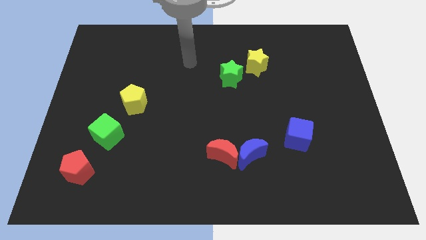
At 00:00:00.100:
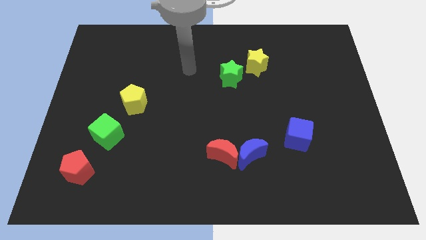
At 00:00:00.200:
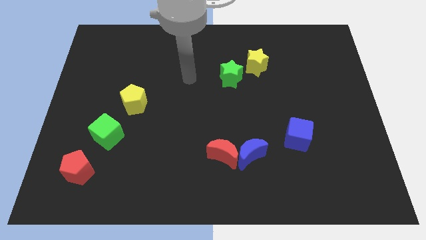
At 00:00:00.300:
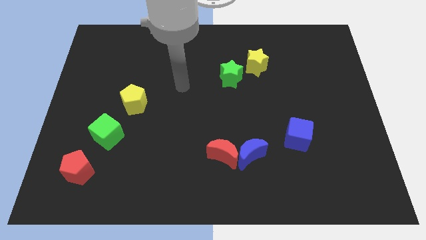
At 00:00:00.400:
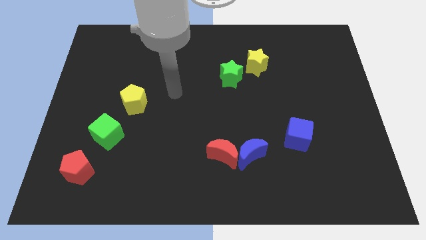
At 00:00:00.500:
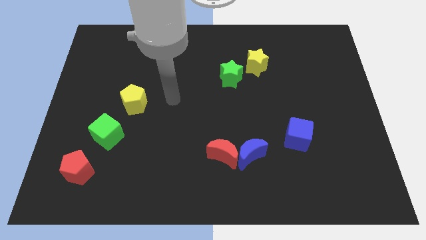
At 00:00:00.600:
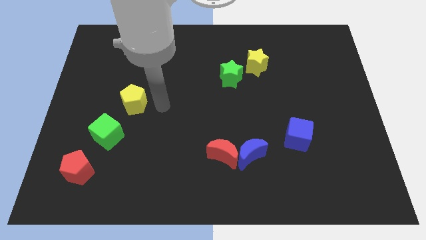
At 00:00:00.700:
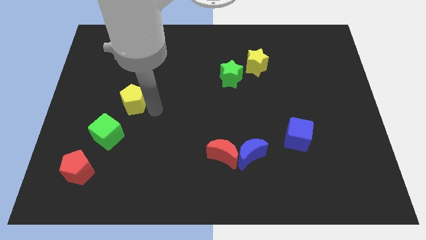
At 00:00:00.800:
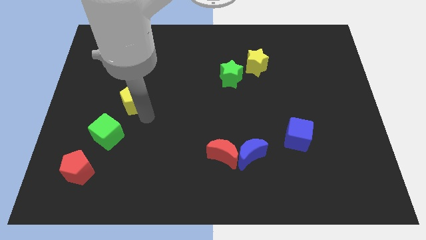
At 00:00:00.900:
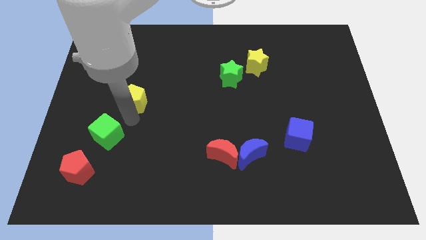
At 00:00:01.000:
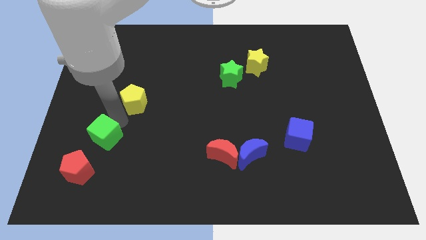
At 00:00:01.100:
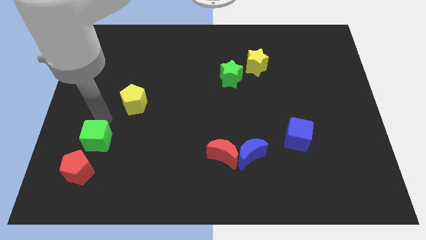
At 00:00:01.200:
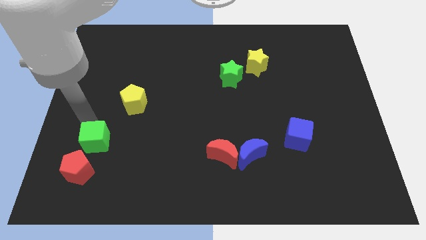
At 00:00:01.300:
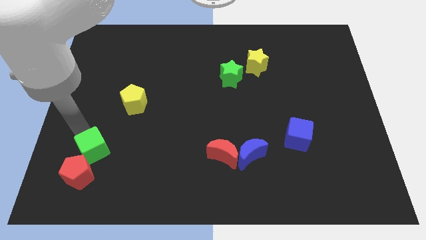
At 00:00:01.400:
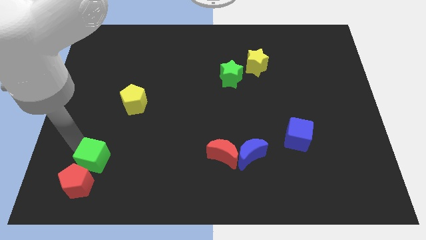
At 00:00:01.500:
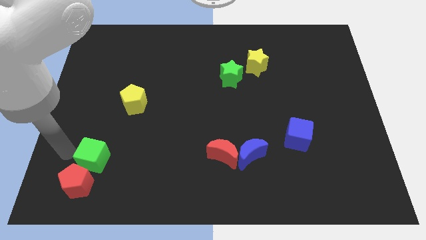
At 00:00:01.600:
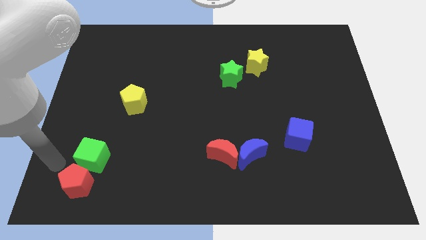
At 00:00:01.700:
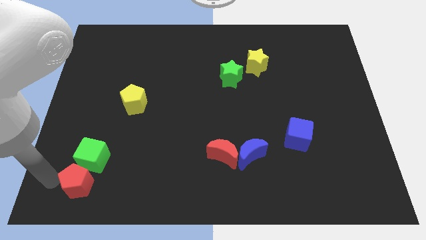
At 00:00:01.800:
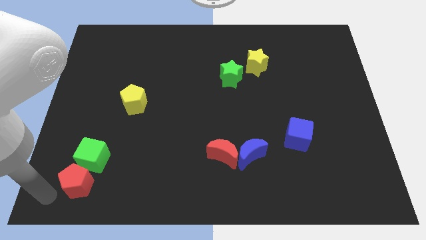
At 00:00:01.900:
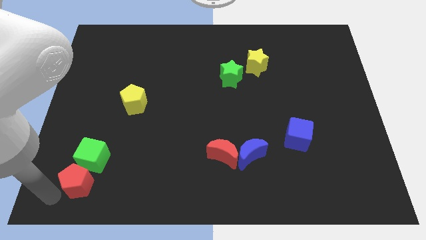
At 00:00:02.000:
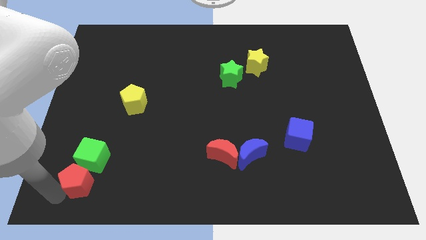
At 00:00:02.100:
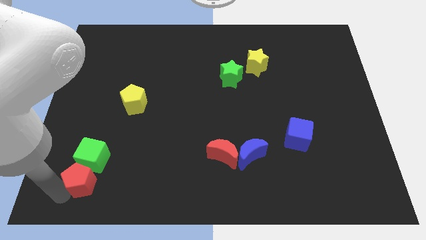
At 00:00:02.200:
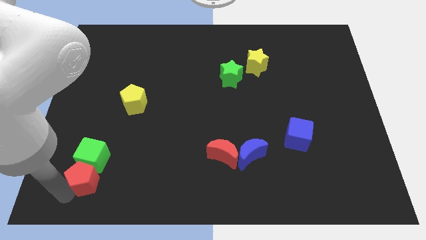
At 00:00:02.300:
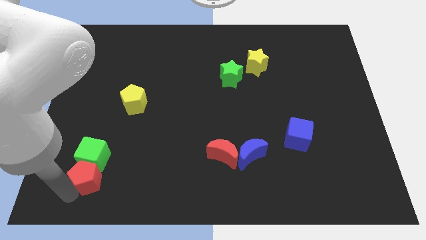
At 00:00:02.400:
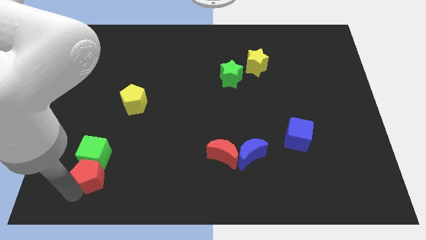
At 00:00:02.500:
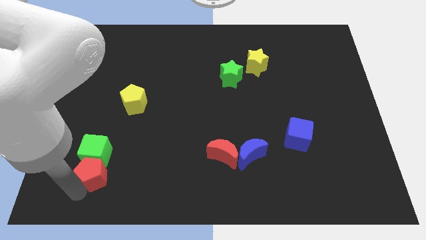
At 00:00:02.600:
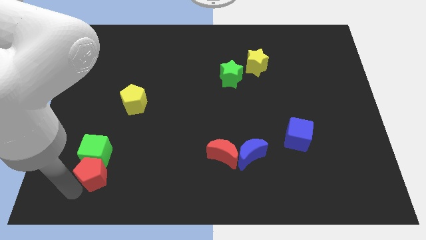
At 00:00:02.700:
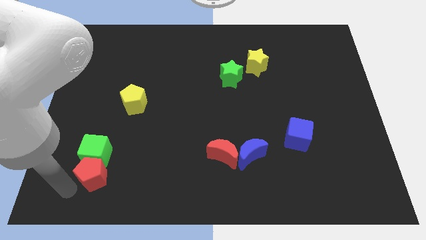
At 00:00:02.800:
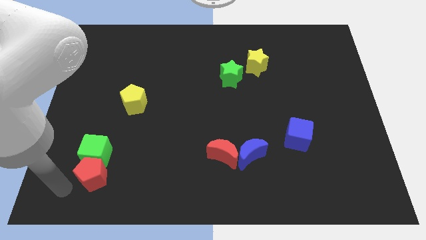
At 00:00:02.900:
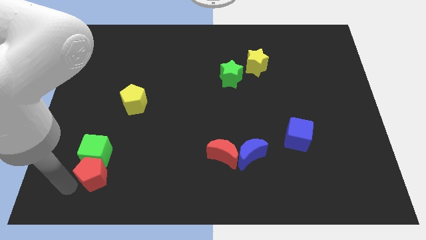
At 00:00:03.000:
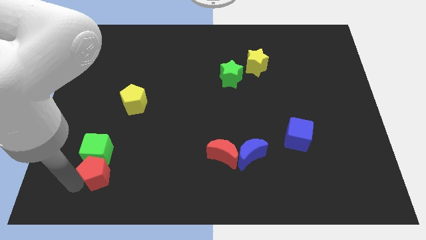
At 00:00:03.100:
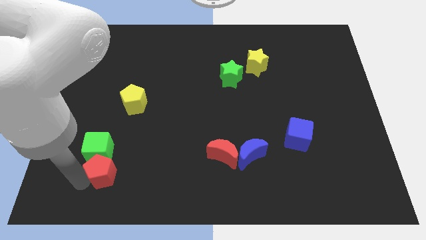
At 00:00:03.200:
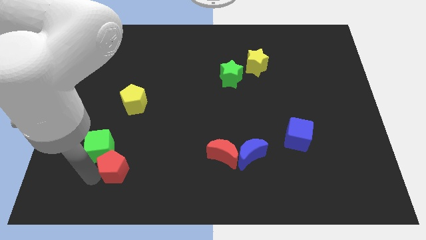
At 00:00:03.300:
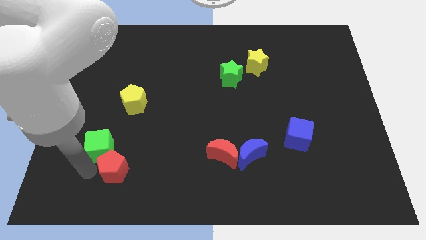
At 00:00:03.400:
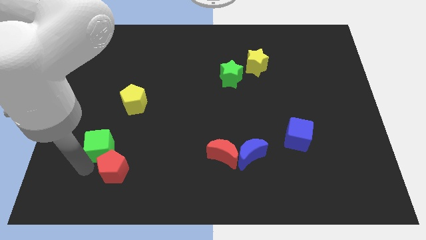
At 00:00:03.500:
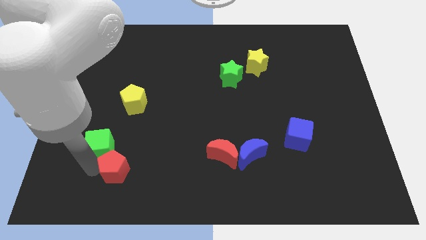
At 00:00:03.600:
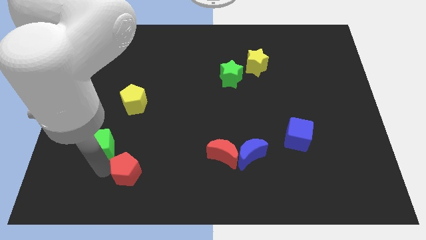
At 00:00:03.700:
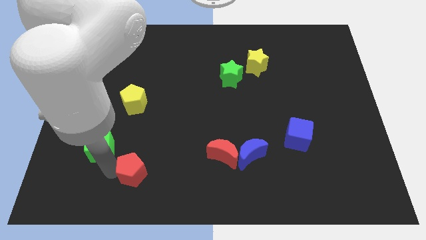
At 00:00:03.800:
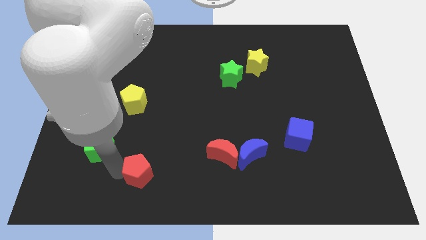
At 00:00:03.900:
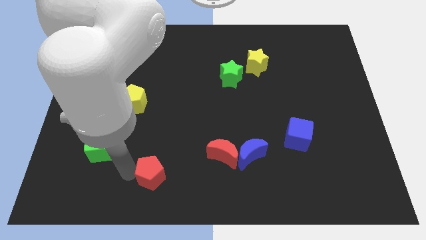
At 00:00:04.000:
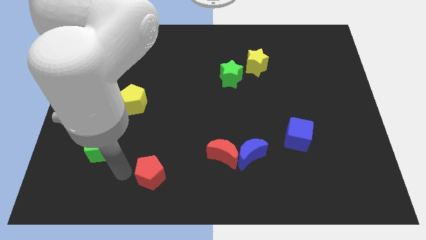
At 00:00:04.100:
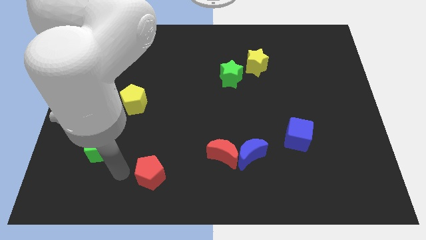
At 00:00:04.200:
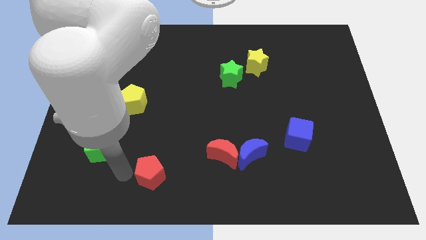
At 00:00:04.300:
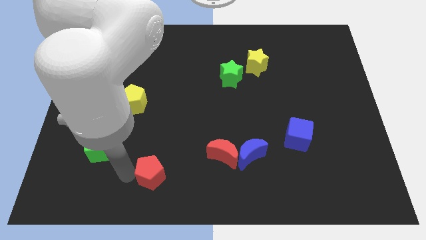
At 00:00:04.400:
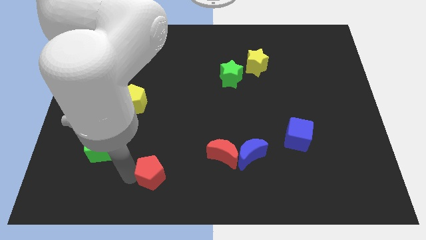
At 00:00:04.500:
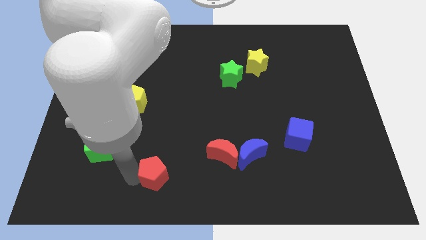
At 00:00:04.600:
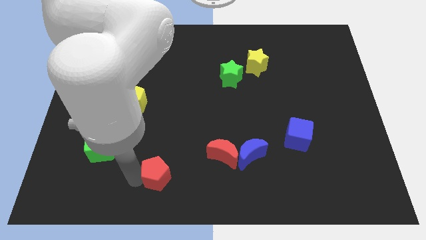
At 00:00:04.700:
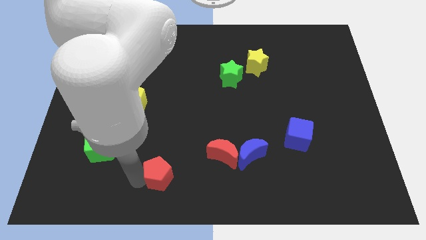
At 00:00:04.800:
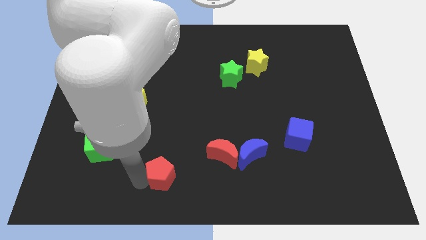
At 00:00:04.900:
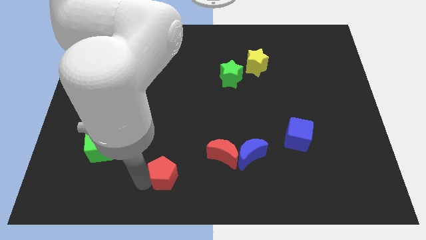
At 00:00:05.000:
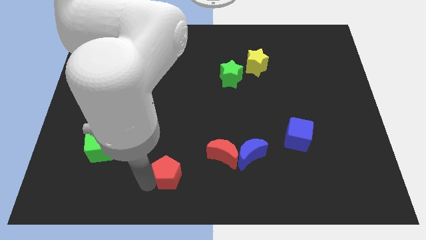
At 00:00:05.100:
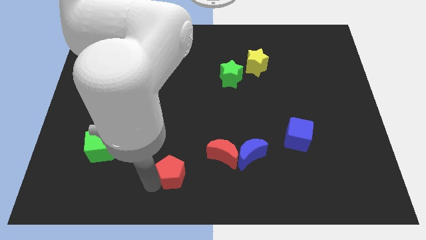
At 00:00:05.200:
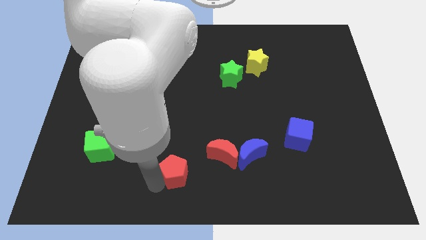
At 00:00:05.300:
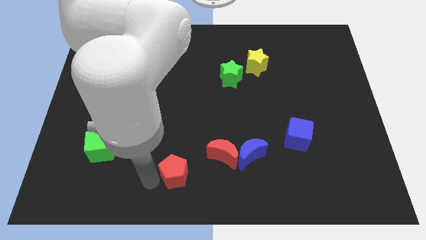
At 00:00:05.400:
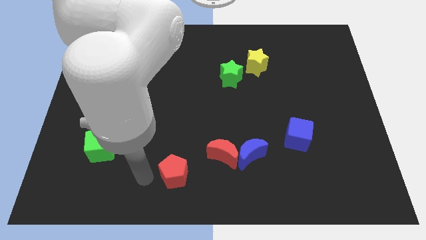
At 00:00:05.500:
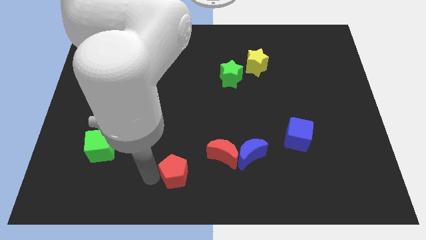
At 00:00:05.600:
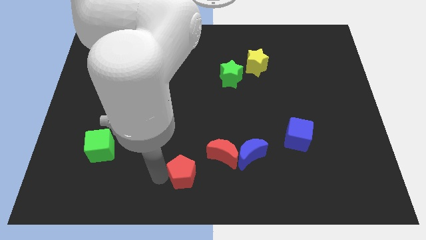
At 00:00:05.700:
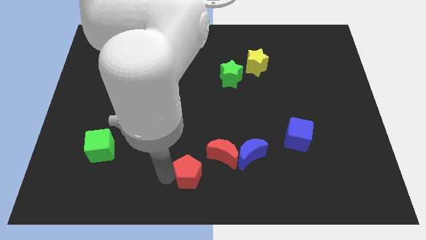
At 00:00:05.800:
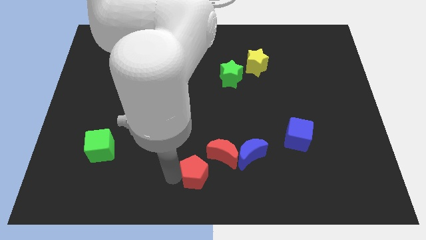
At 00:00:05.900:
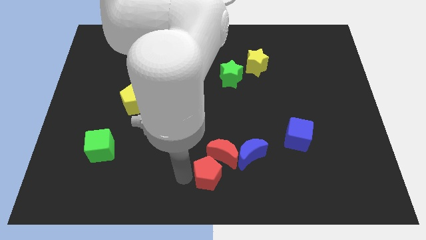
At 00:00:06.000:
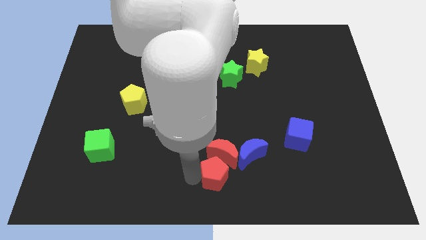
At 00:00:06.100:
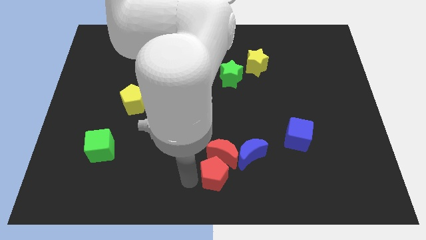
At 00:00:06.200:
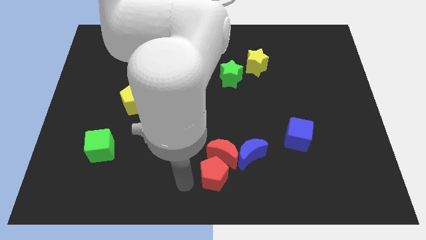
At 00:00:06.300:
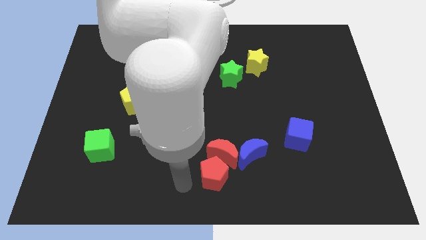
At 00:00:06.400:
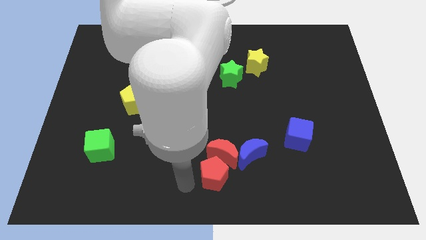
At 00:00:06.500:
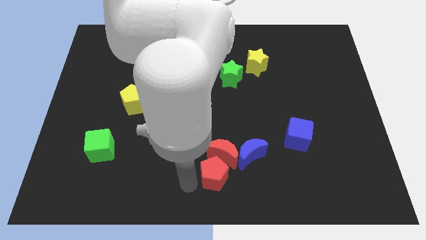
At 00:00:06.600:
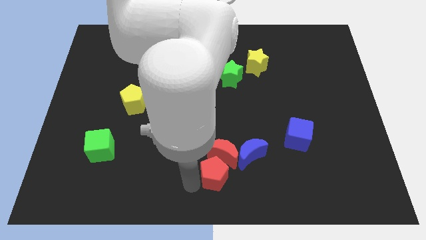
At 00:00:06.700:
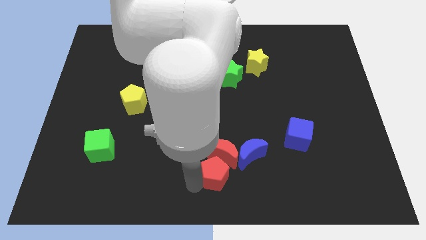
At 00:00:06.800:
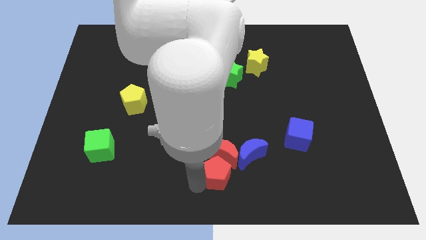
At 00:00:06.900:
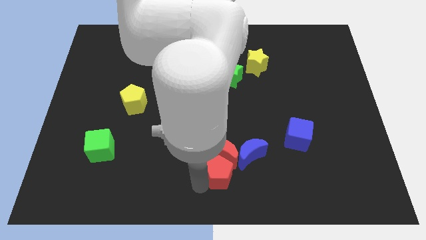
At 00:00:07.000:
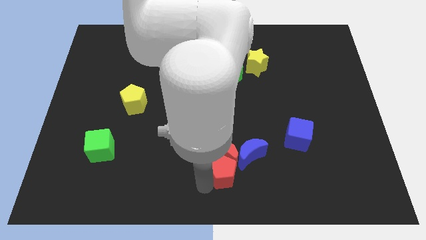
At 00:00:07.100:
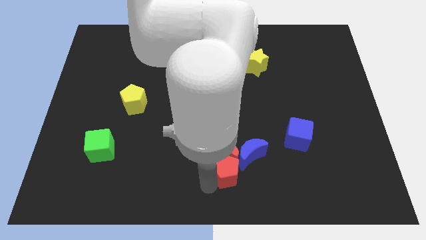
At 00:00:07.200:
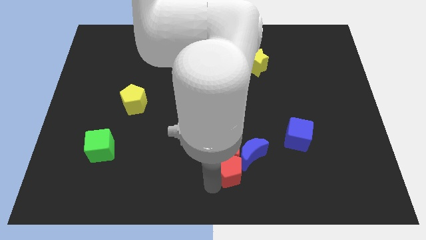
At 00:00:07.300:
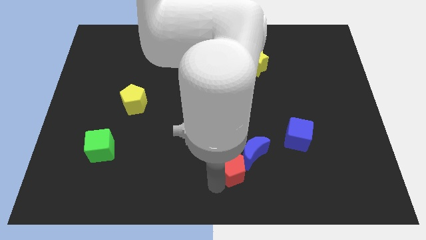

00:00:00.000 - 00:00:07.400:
slide the red pentagon towards the blue moon
